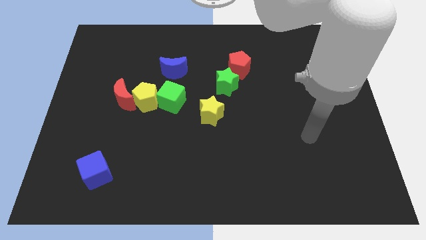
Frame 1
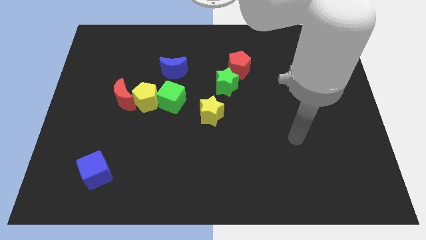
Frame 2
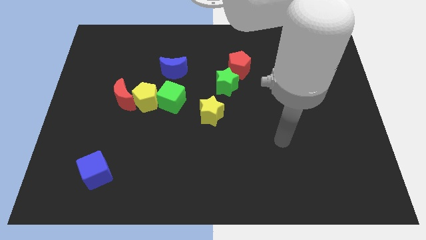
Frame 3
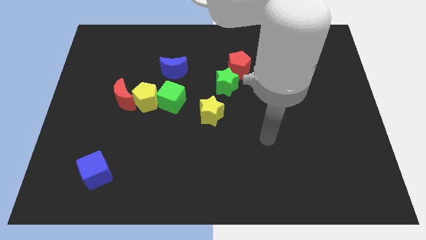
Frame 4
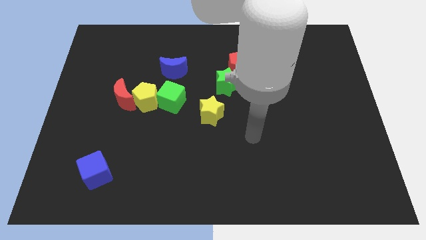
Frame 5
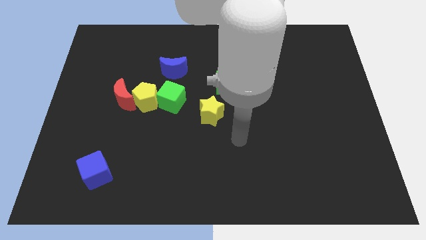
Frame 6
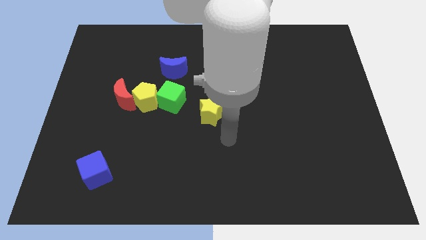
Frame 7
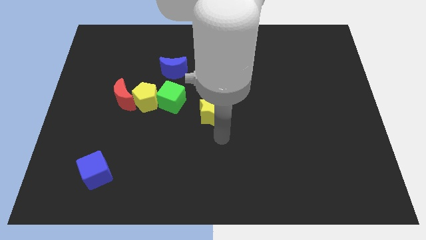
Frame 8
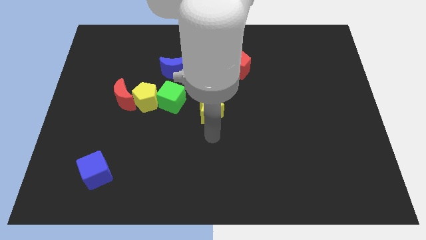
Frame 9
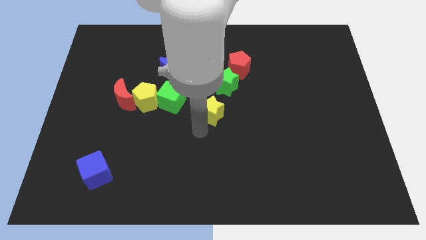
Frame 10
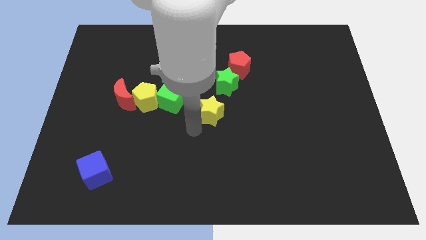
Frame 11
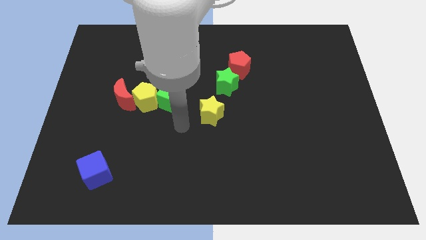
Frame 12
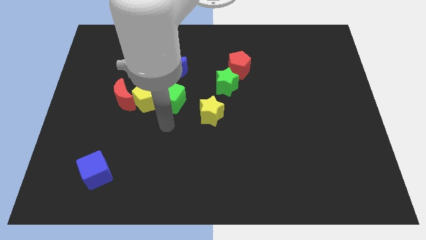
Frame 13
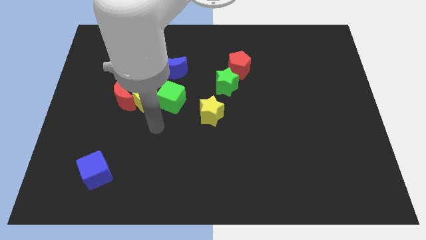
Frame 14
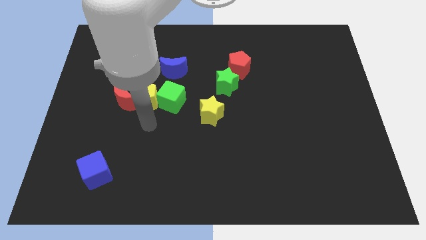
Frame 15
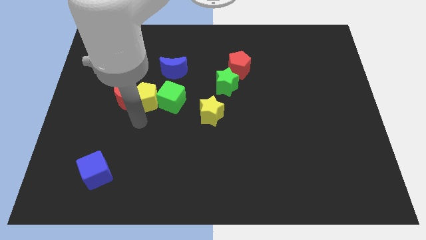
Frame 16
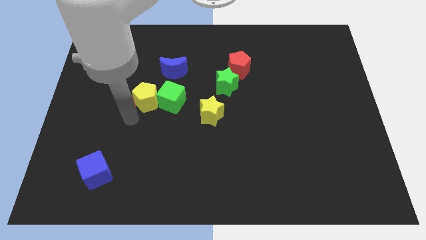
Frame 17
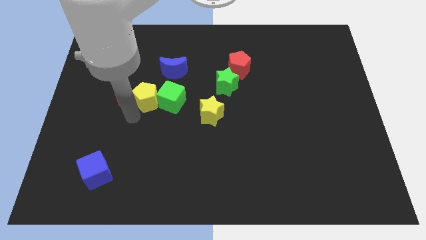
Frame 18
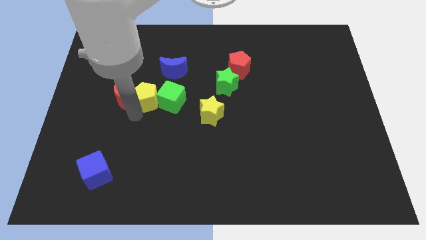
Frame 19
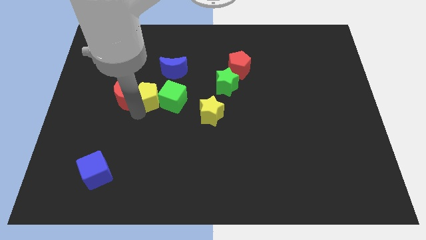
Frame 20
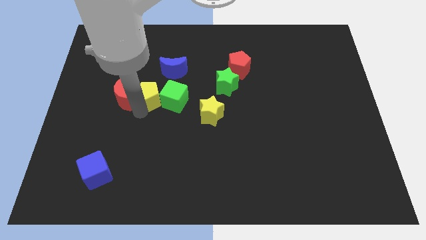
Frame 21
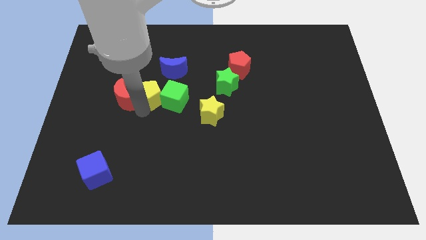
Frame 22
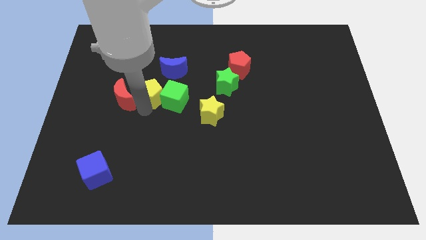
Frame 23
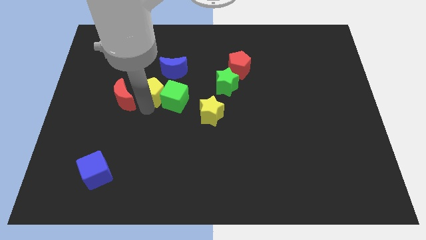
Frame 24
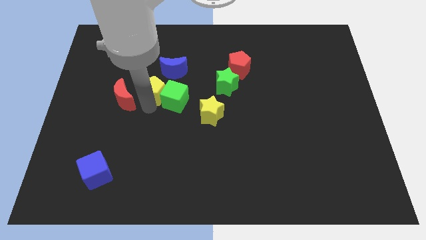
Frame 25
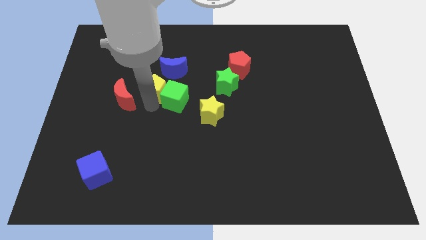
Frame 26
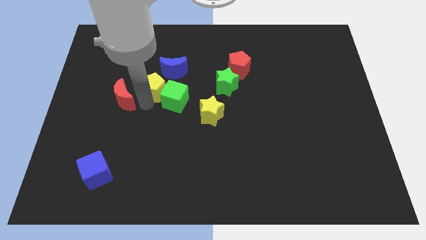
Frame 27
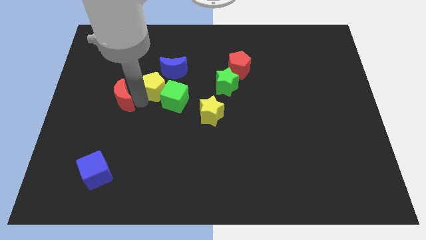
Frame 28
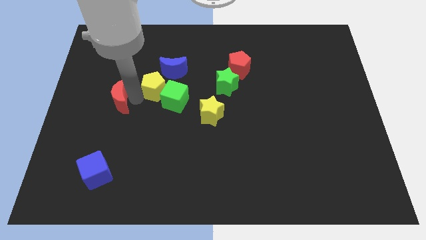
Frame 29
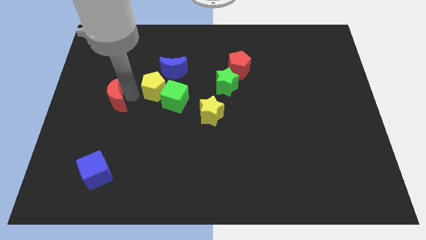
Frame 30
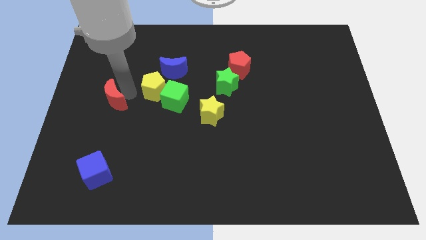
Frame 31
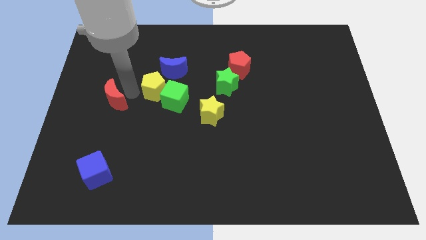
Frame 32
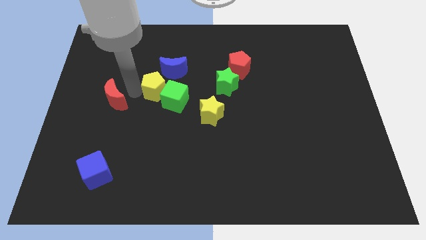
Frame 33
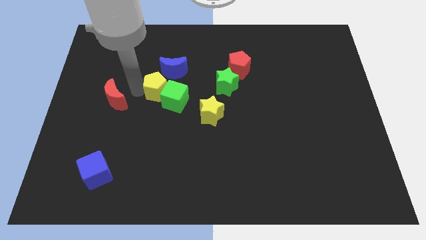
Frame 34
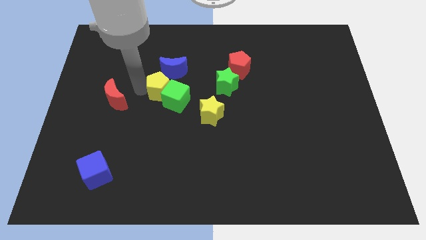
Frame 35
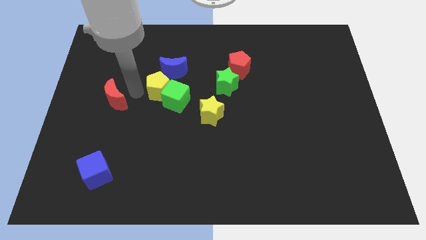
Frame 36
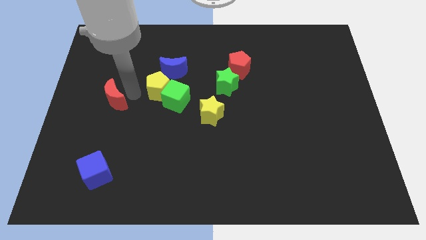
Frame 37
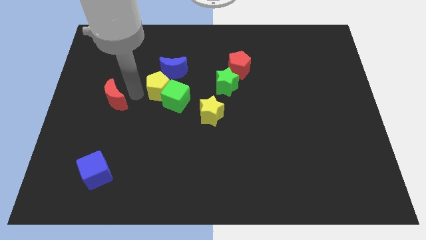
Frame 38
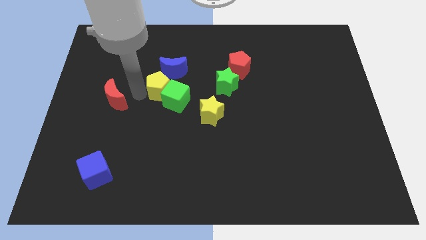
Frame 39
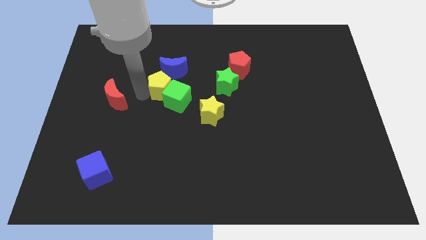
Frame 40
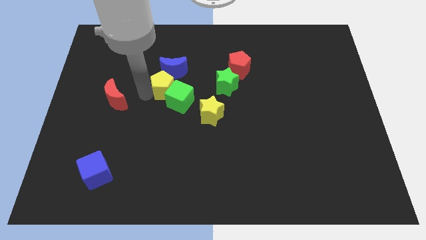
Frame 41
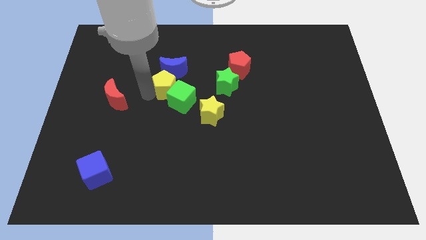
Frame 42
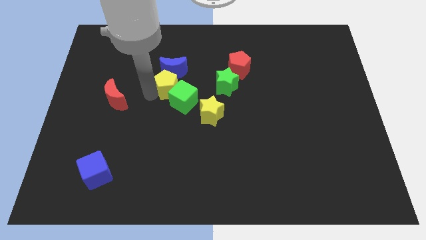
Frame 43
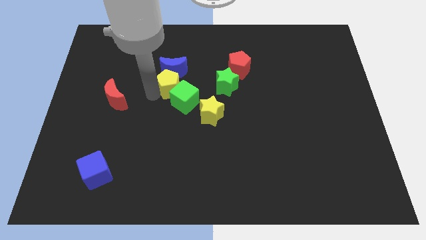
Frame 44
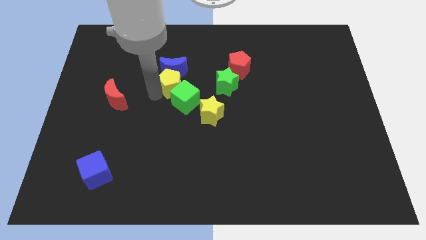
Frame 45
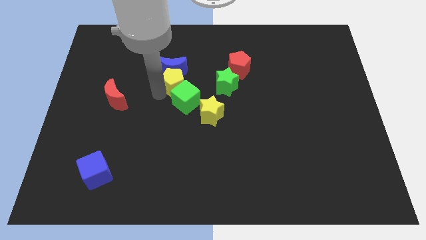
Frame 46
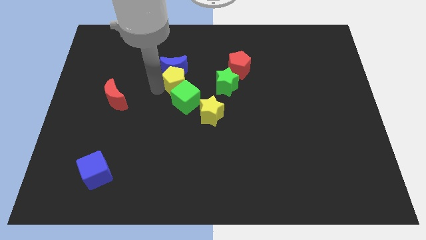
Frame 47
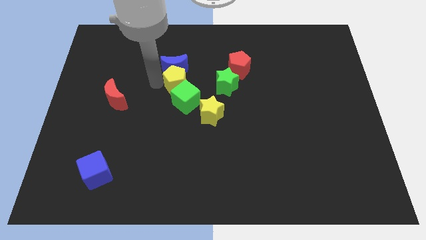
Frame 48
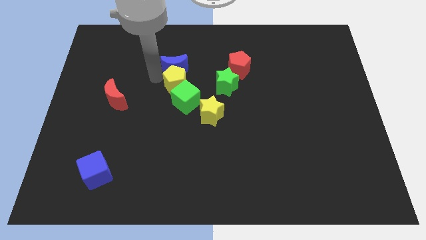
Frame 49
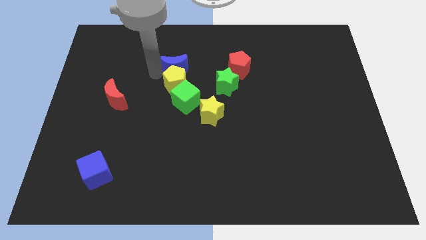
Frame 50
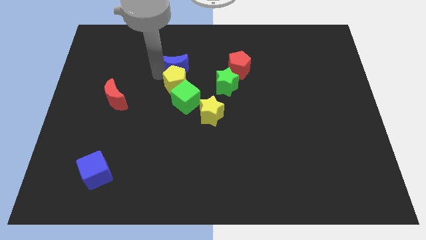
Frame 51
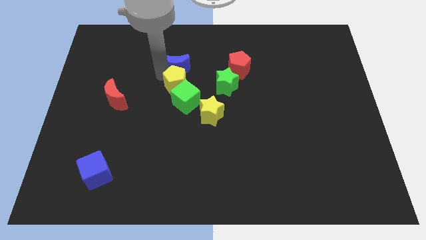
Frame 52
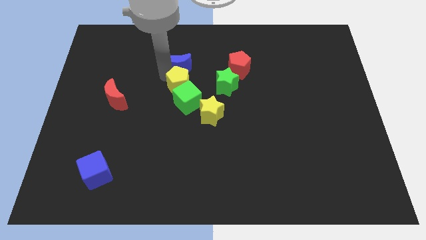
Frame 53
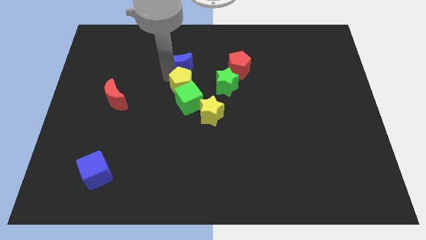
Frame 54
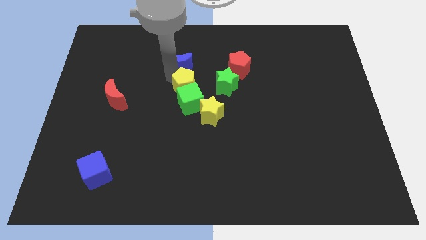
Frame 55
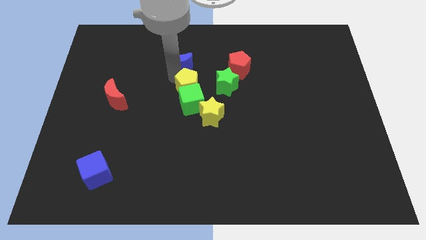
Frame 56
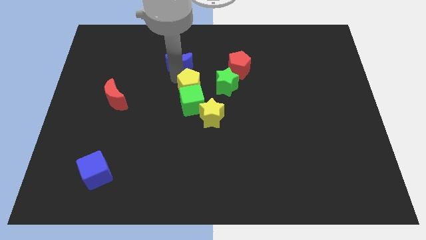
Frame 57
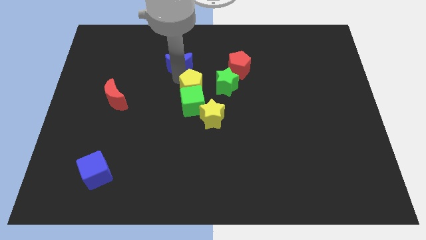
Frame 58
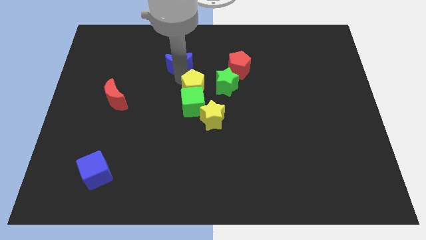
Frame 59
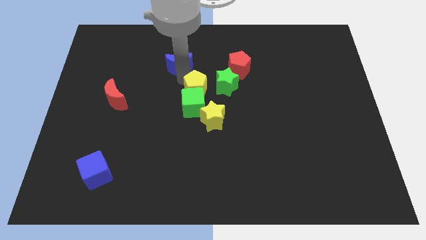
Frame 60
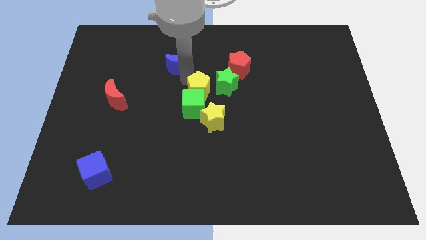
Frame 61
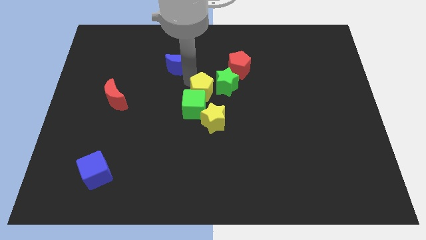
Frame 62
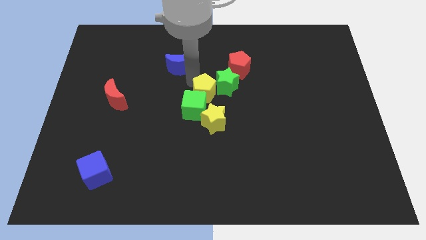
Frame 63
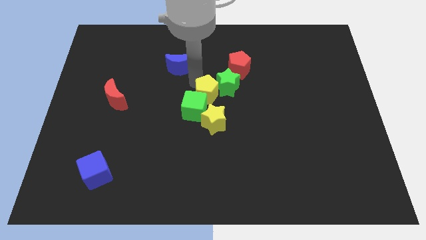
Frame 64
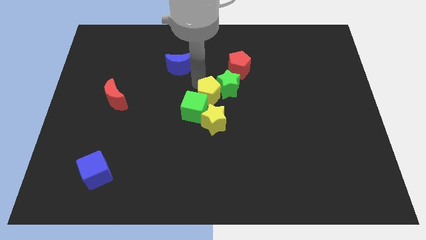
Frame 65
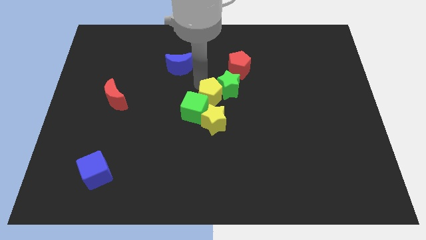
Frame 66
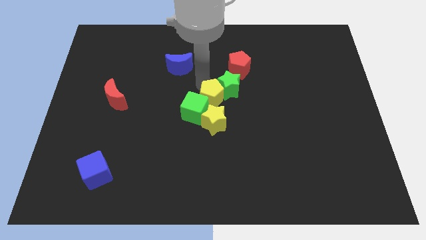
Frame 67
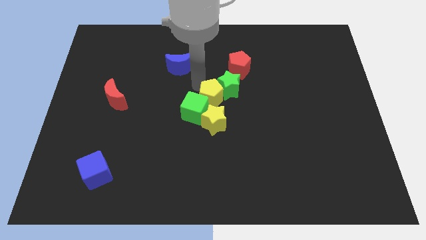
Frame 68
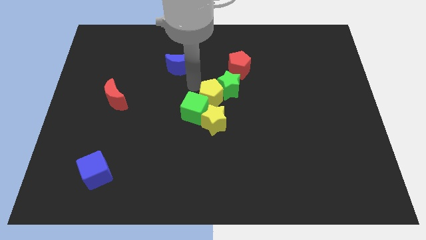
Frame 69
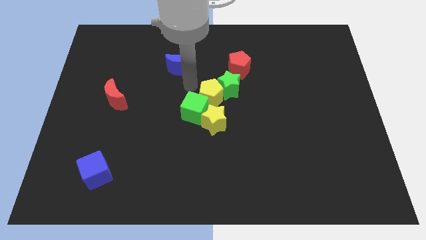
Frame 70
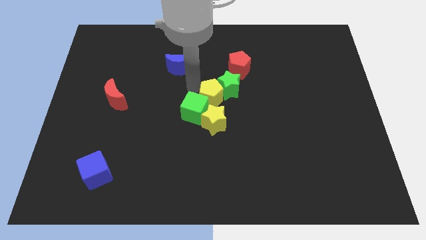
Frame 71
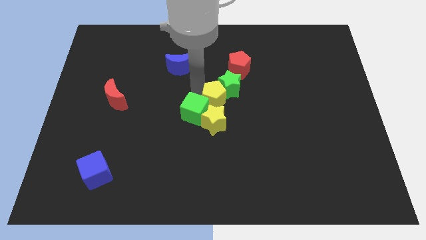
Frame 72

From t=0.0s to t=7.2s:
move the yellow pentagon to the top right of the yellow star
